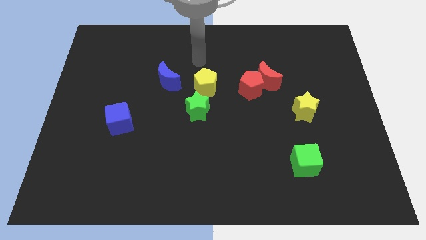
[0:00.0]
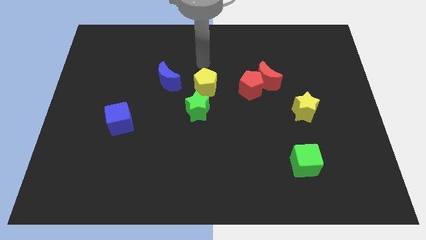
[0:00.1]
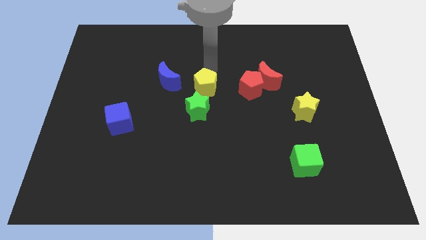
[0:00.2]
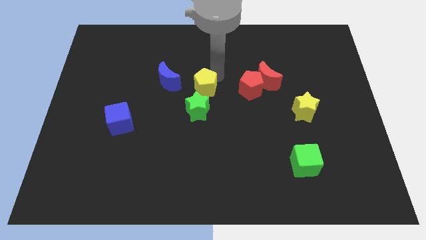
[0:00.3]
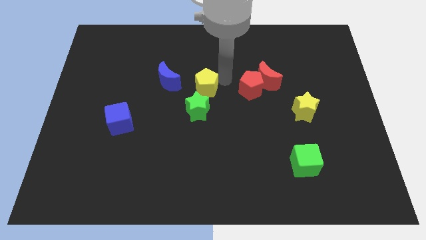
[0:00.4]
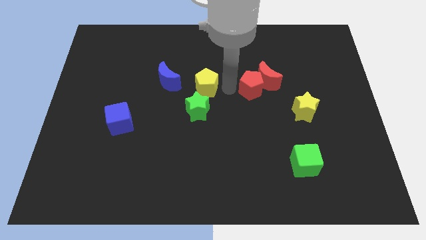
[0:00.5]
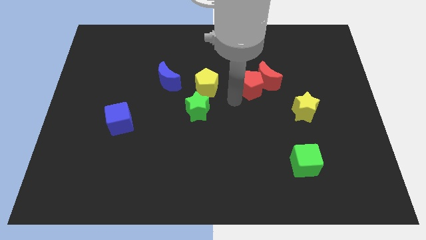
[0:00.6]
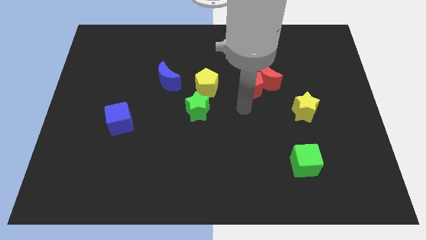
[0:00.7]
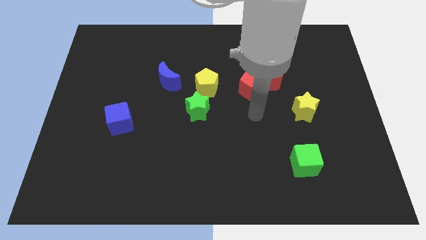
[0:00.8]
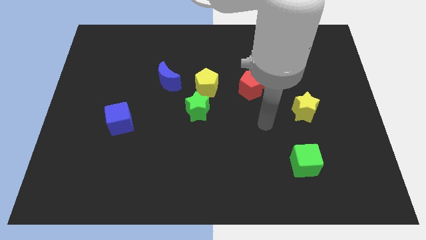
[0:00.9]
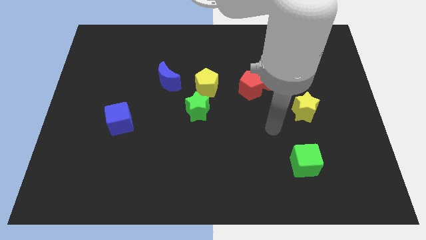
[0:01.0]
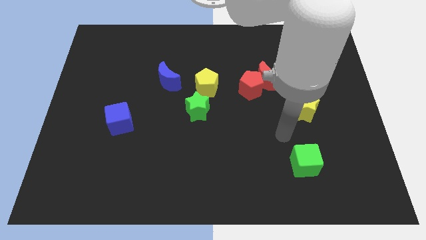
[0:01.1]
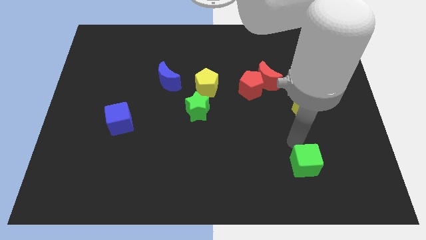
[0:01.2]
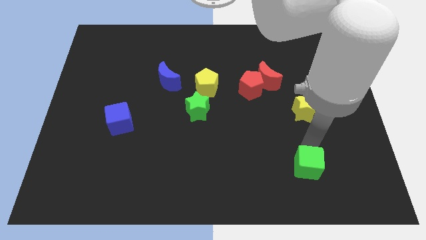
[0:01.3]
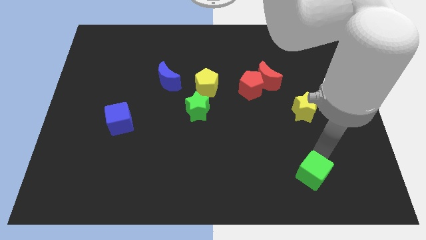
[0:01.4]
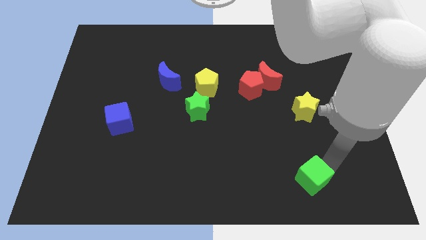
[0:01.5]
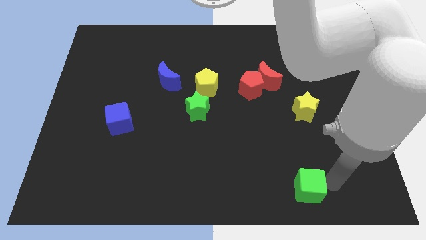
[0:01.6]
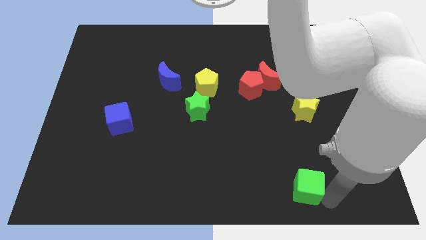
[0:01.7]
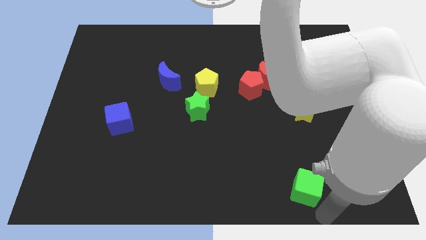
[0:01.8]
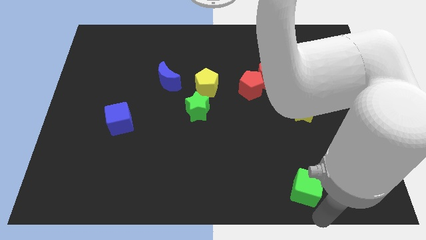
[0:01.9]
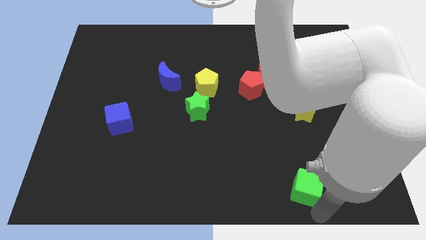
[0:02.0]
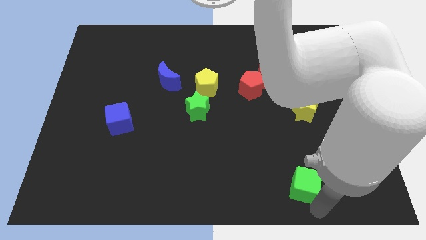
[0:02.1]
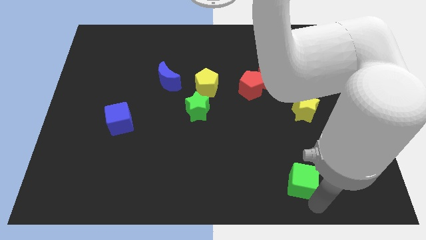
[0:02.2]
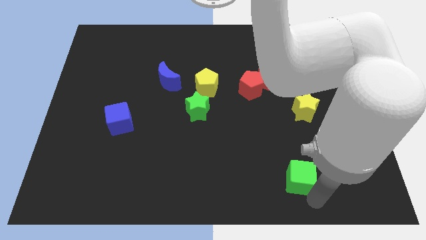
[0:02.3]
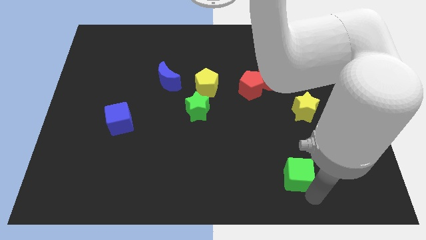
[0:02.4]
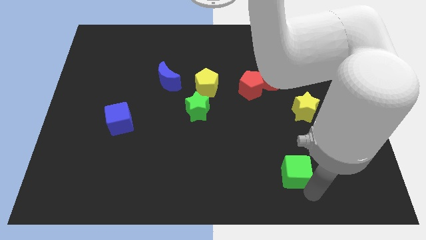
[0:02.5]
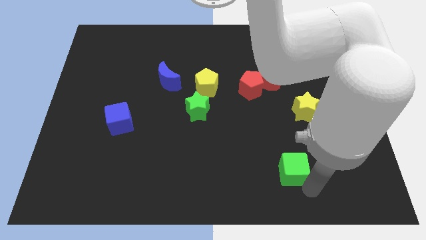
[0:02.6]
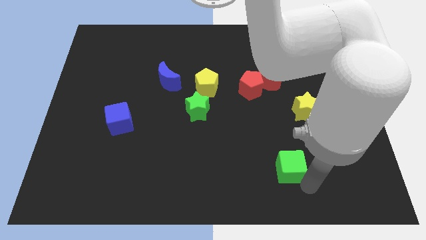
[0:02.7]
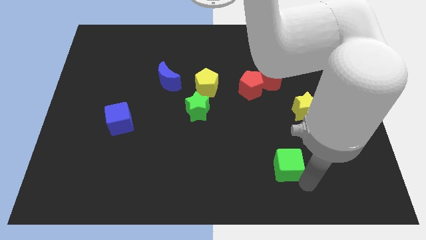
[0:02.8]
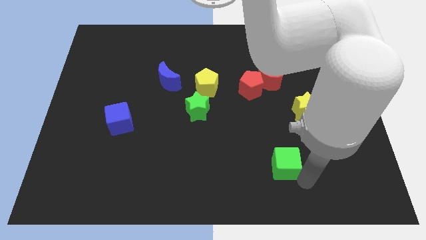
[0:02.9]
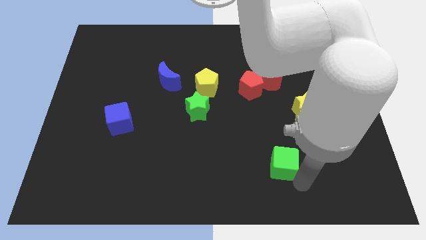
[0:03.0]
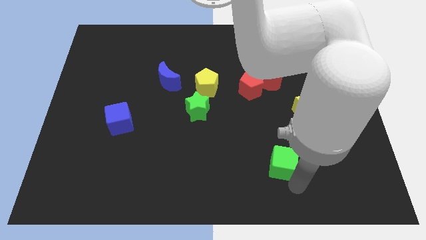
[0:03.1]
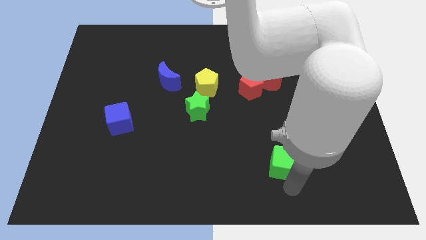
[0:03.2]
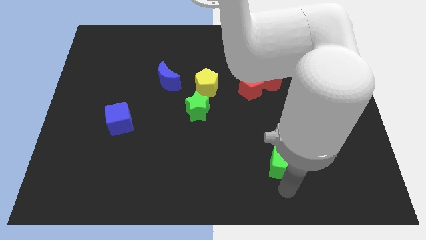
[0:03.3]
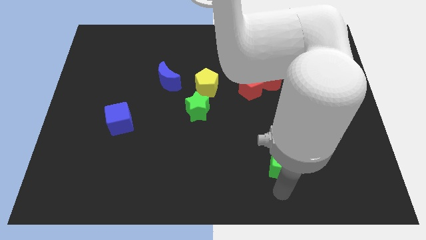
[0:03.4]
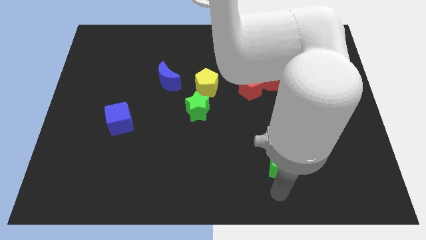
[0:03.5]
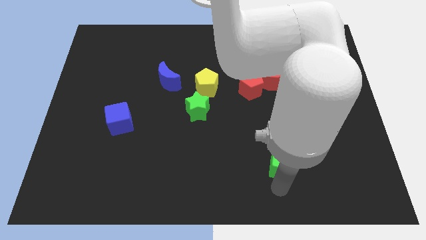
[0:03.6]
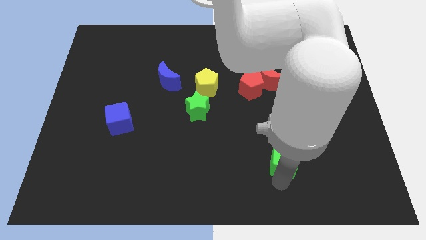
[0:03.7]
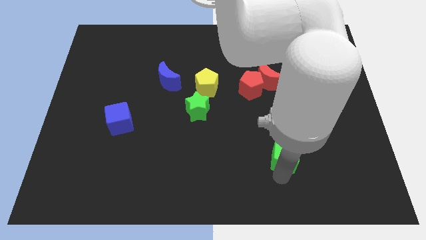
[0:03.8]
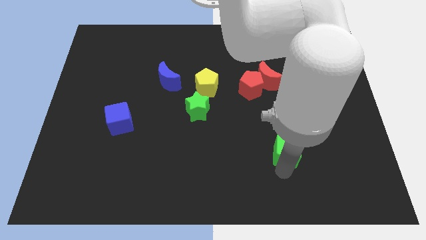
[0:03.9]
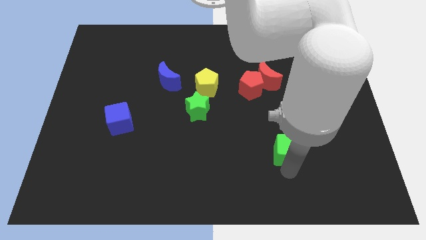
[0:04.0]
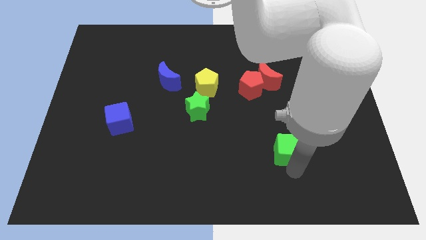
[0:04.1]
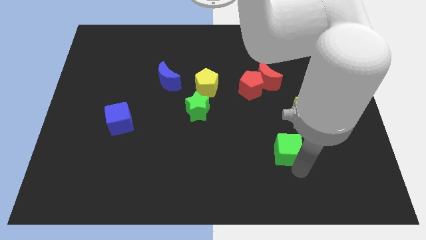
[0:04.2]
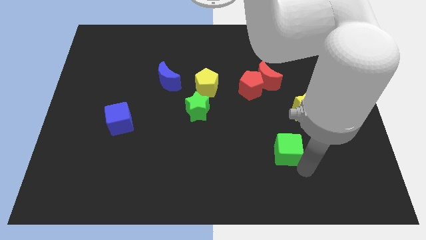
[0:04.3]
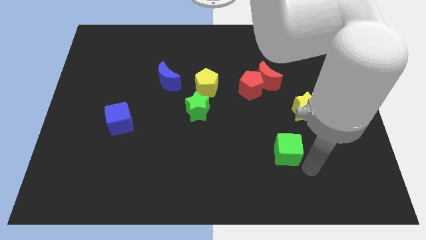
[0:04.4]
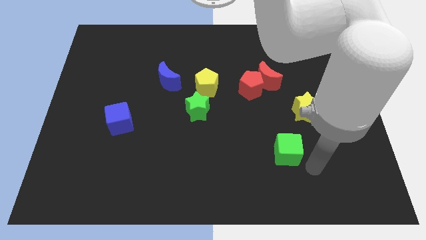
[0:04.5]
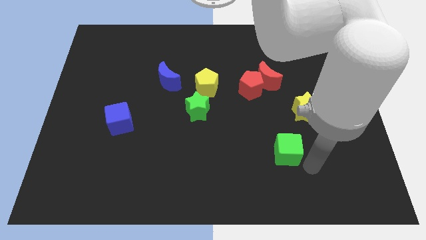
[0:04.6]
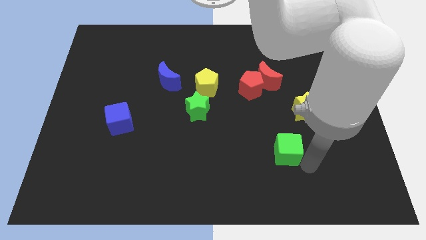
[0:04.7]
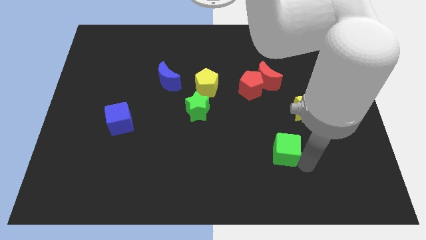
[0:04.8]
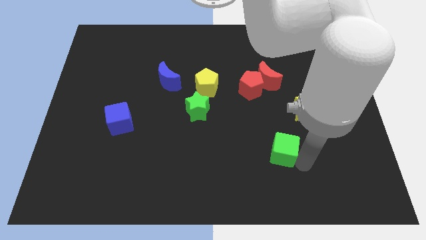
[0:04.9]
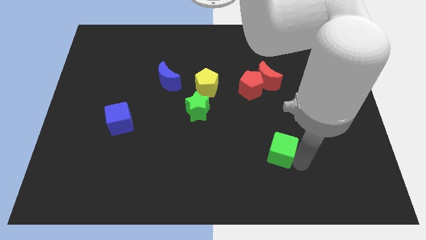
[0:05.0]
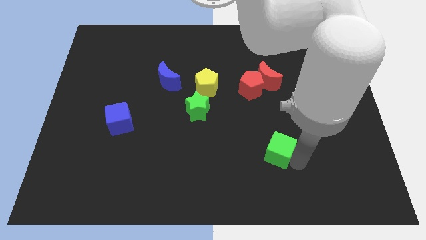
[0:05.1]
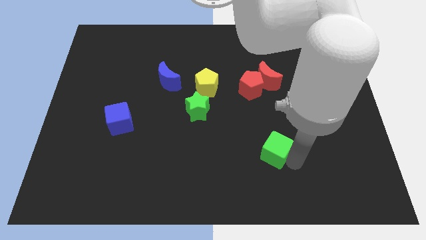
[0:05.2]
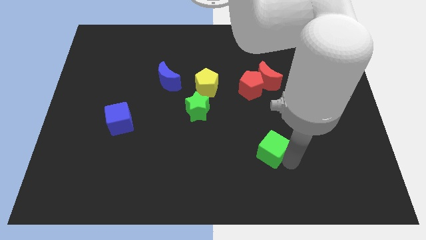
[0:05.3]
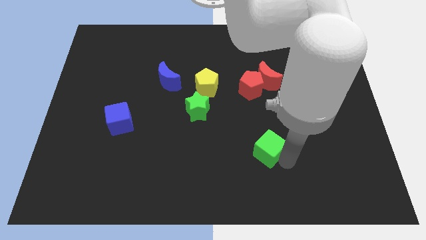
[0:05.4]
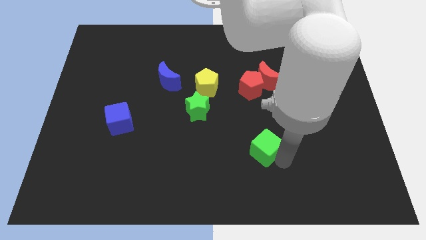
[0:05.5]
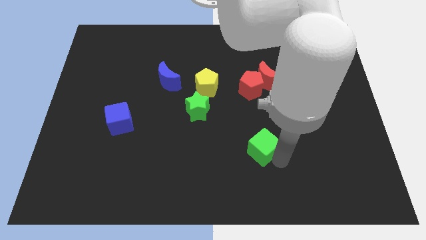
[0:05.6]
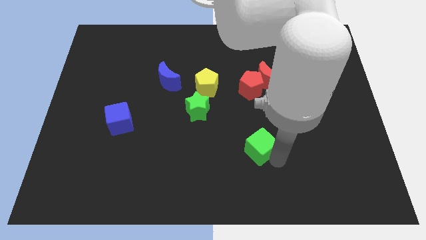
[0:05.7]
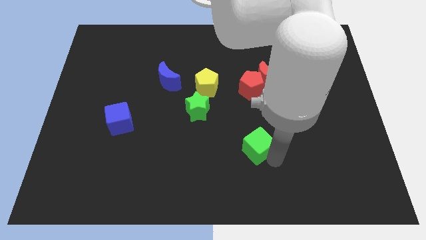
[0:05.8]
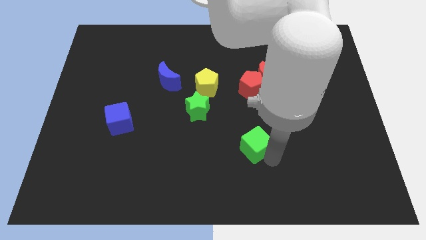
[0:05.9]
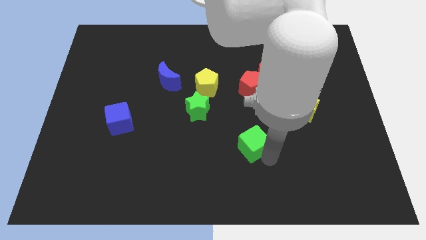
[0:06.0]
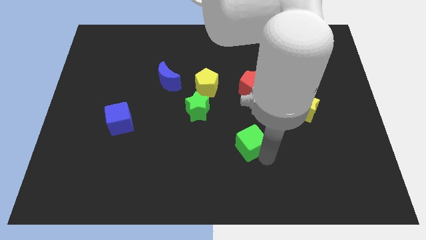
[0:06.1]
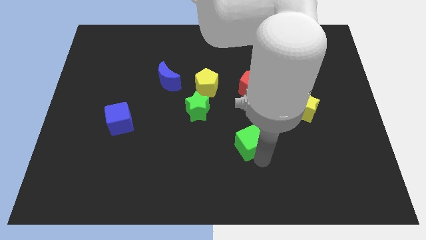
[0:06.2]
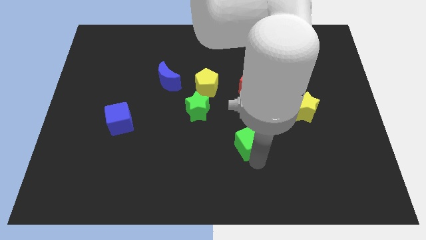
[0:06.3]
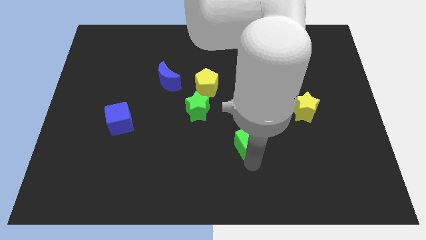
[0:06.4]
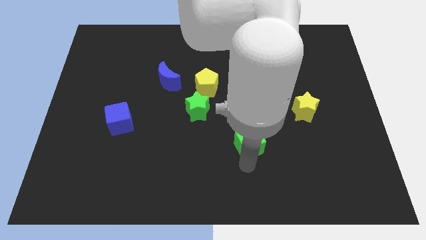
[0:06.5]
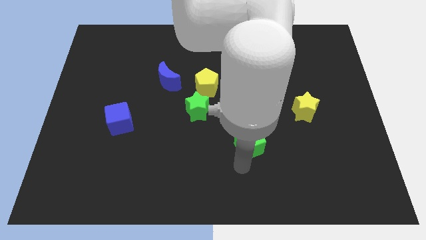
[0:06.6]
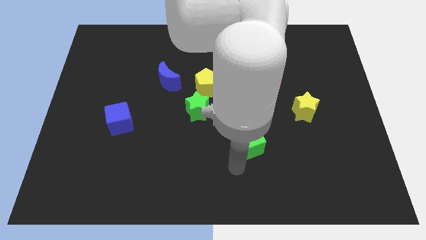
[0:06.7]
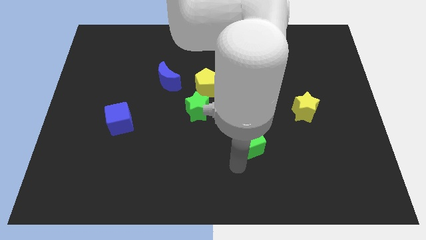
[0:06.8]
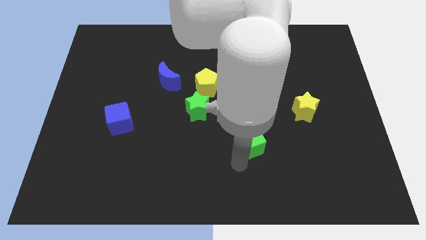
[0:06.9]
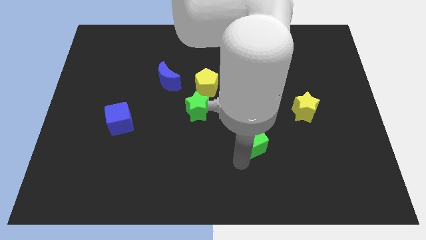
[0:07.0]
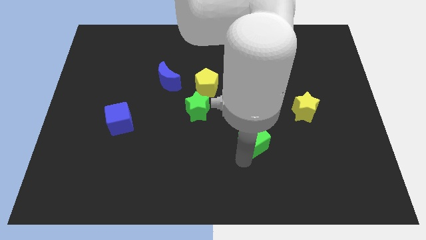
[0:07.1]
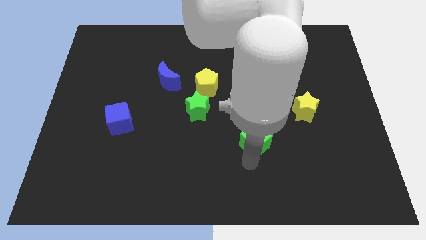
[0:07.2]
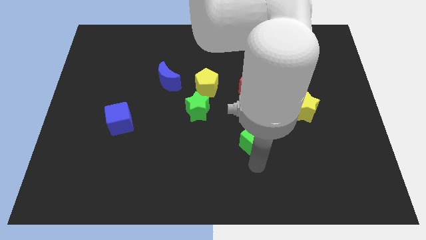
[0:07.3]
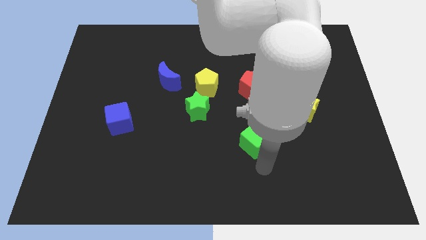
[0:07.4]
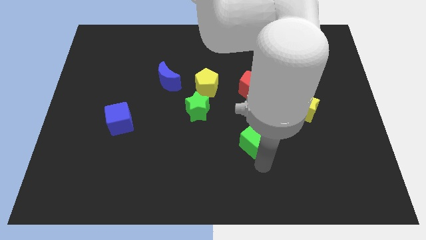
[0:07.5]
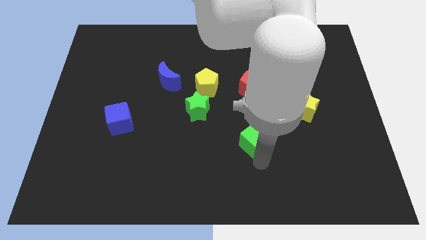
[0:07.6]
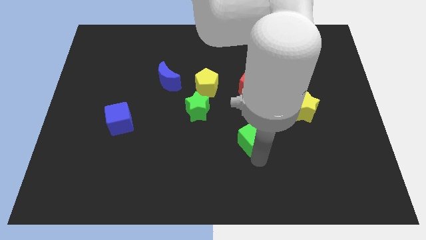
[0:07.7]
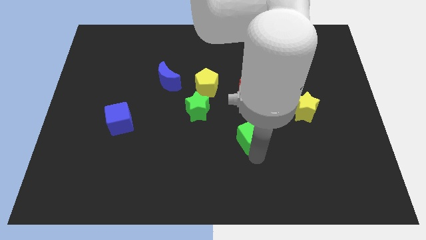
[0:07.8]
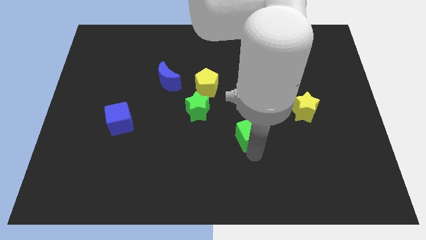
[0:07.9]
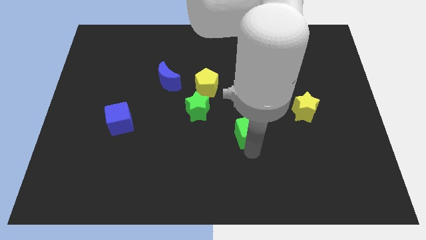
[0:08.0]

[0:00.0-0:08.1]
push the green cube to the center of the board
